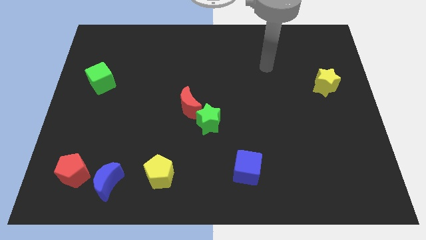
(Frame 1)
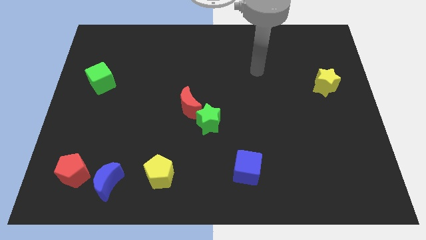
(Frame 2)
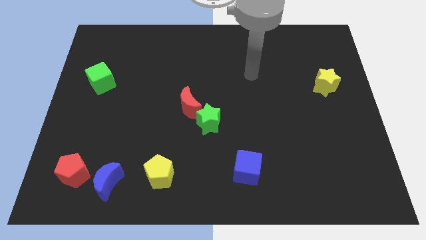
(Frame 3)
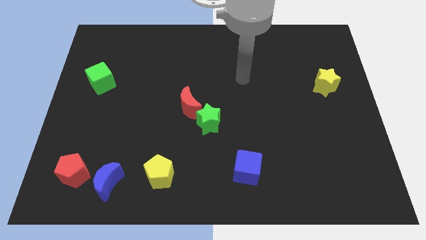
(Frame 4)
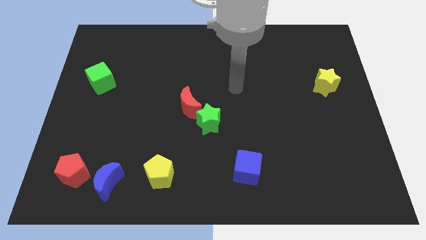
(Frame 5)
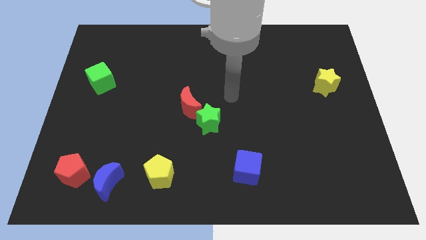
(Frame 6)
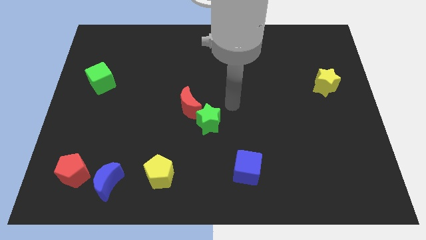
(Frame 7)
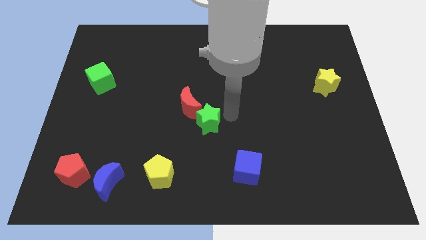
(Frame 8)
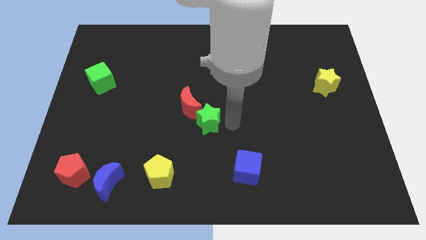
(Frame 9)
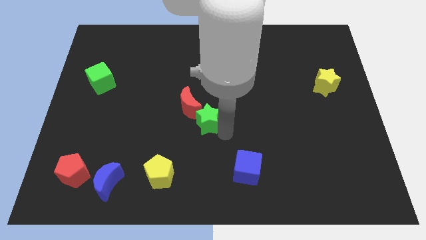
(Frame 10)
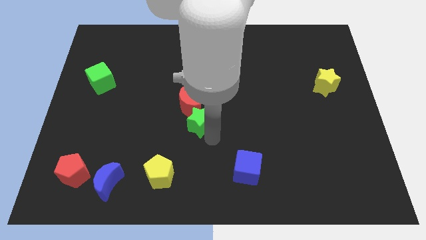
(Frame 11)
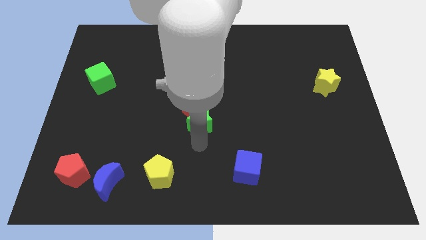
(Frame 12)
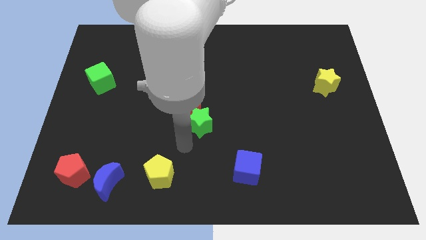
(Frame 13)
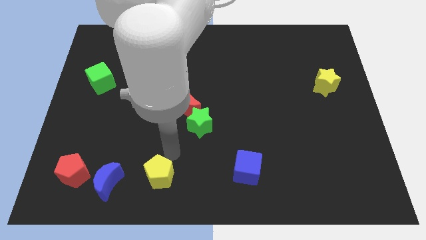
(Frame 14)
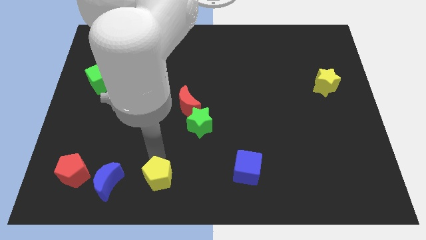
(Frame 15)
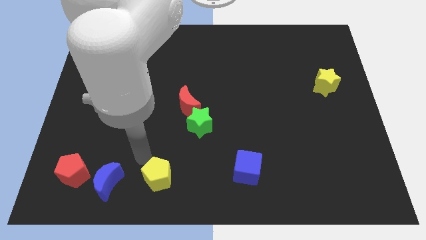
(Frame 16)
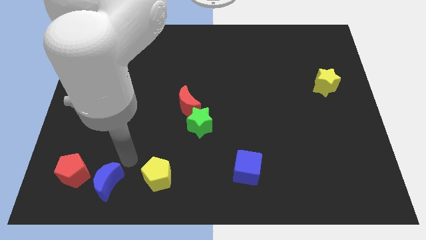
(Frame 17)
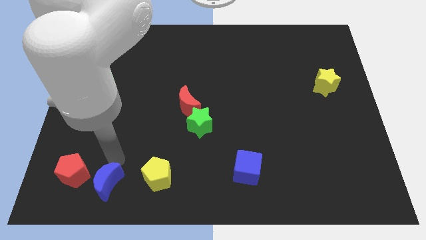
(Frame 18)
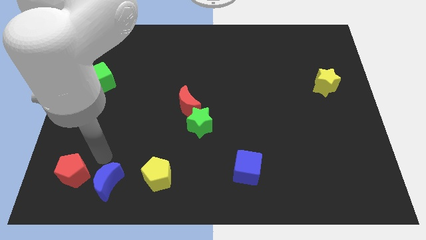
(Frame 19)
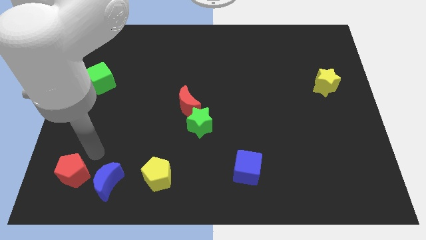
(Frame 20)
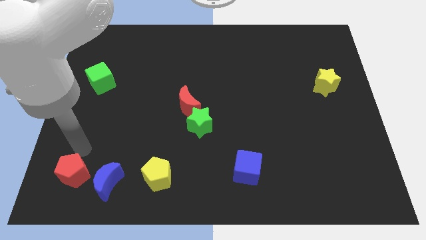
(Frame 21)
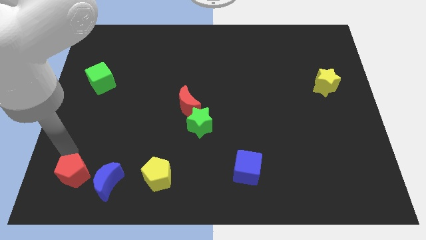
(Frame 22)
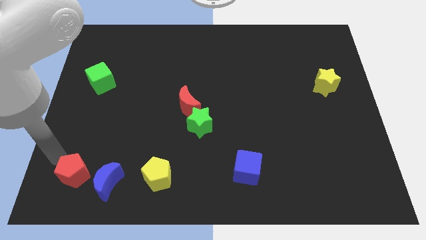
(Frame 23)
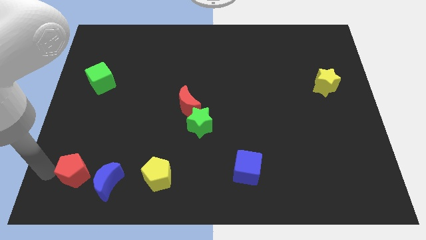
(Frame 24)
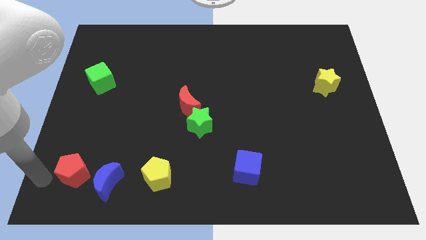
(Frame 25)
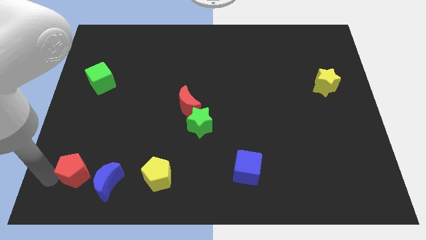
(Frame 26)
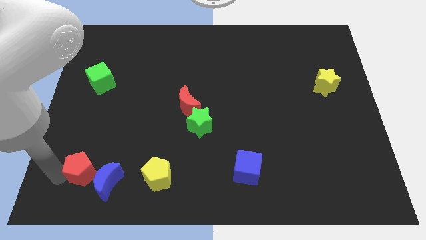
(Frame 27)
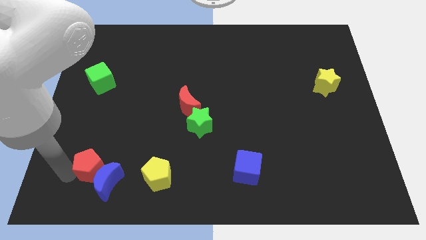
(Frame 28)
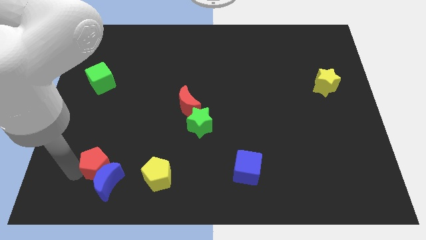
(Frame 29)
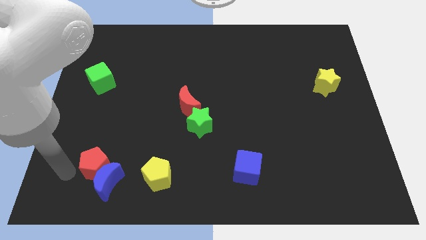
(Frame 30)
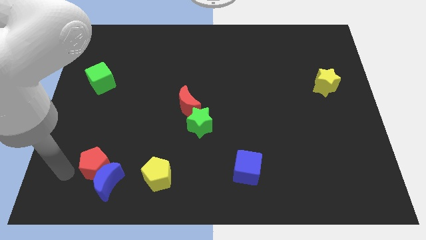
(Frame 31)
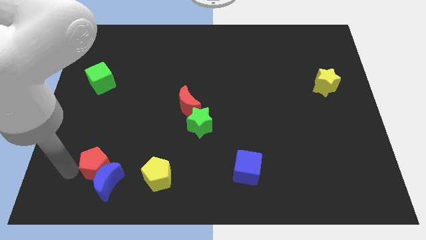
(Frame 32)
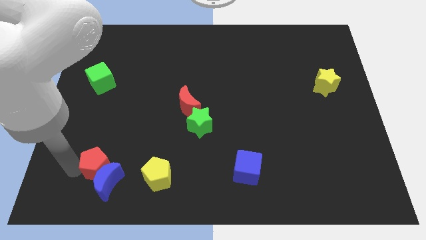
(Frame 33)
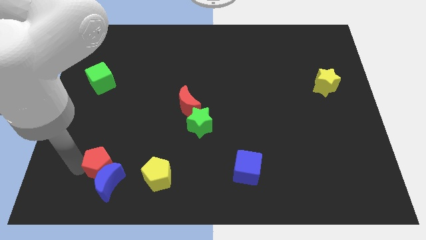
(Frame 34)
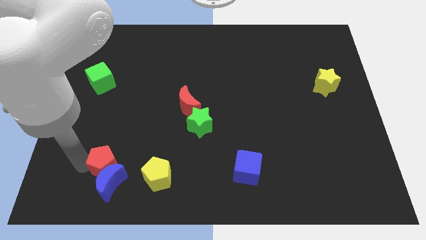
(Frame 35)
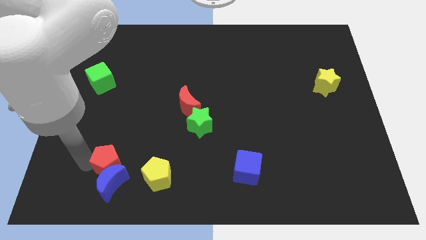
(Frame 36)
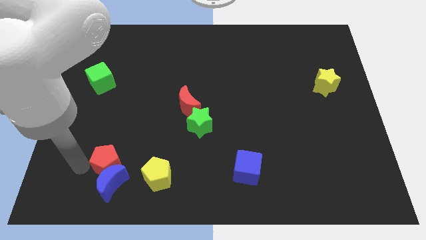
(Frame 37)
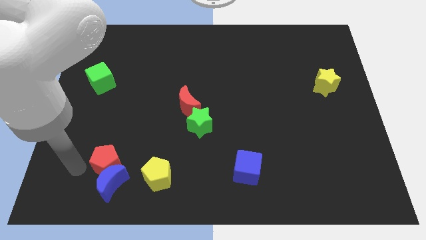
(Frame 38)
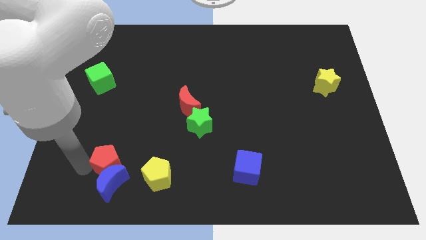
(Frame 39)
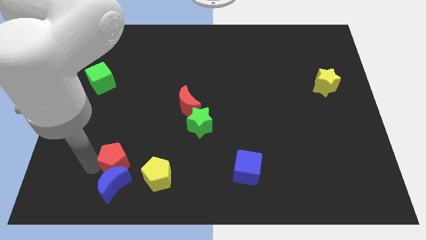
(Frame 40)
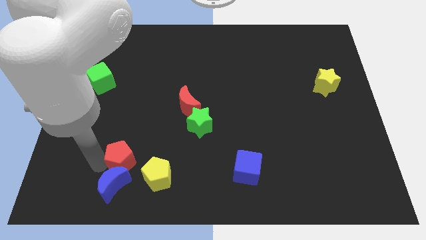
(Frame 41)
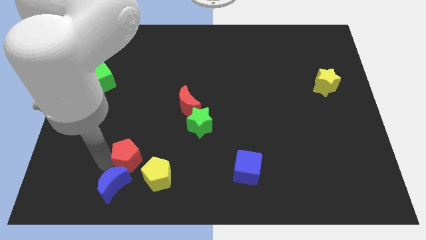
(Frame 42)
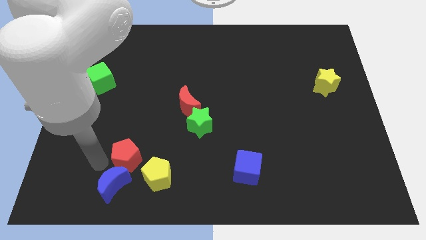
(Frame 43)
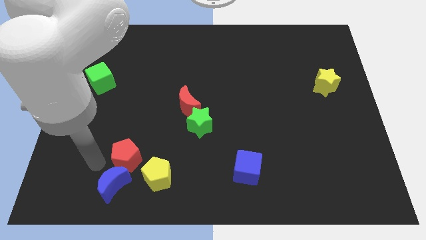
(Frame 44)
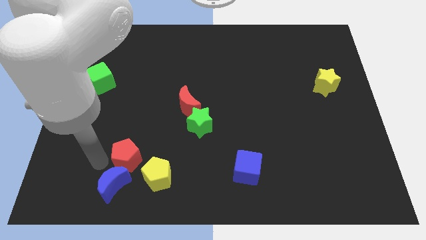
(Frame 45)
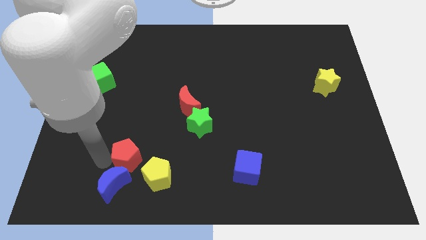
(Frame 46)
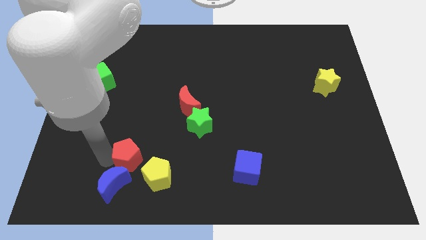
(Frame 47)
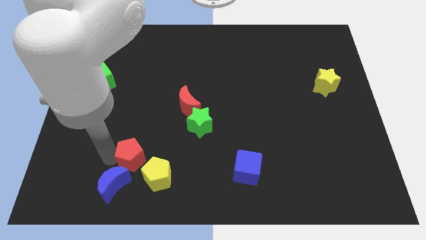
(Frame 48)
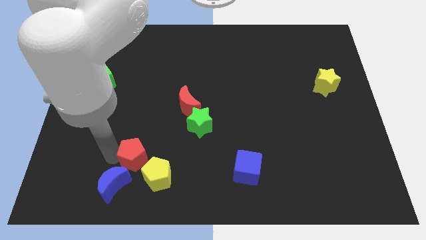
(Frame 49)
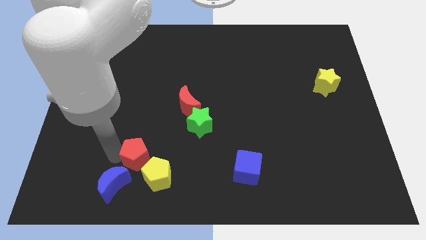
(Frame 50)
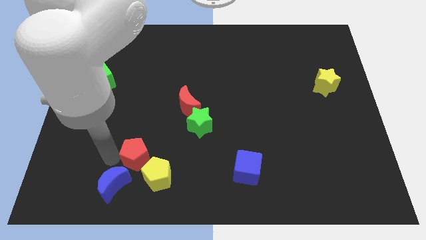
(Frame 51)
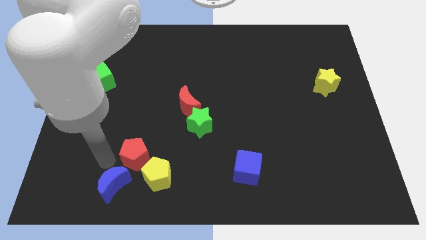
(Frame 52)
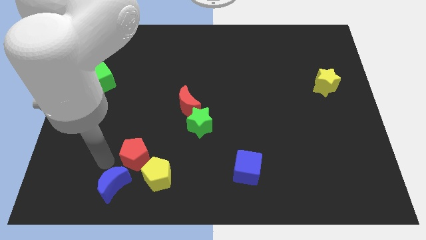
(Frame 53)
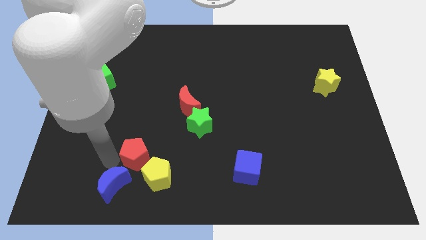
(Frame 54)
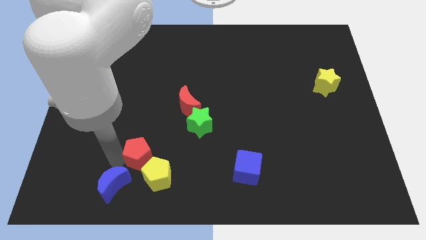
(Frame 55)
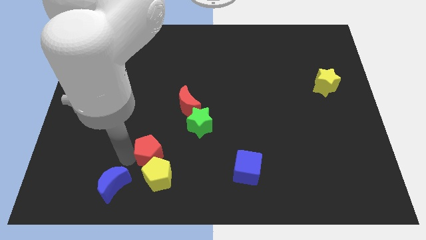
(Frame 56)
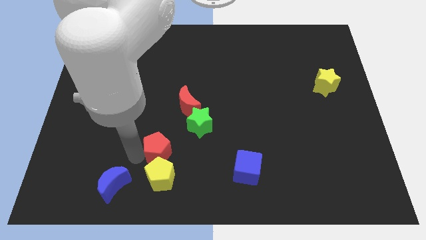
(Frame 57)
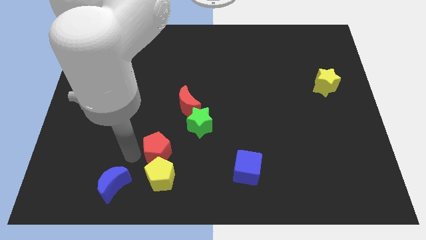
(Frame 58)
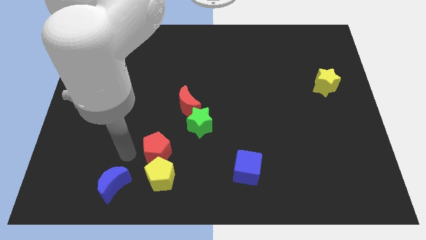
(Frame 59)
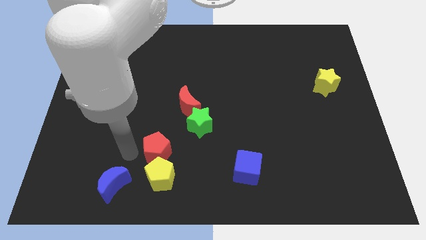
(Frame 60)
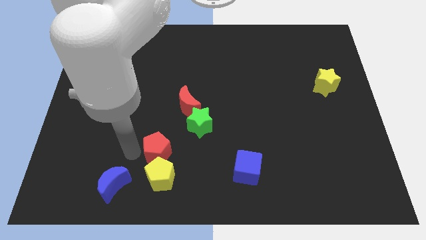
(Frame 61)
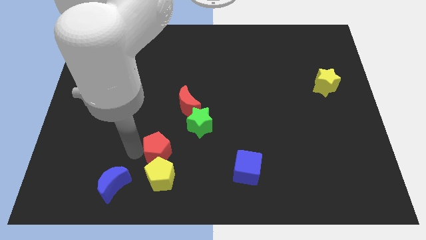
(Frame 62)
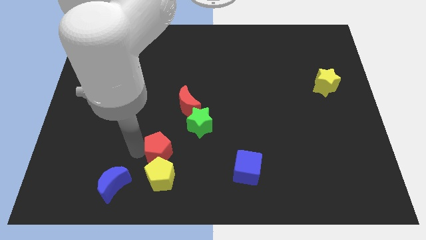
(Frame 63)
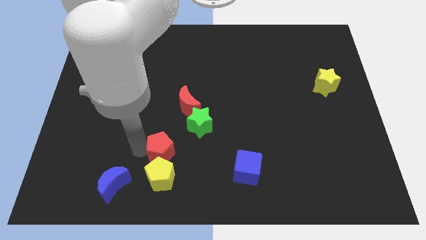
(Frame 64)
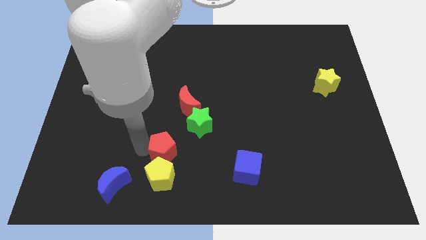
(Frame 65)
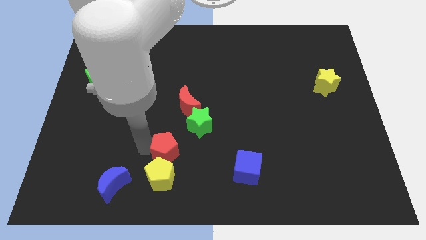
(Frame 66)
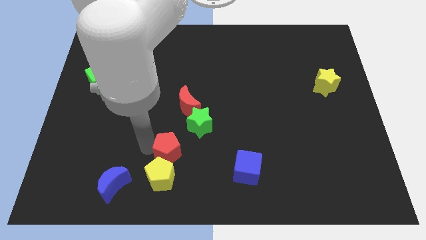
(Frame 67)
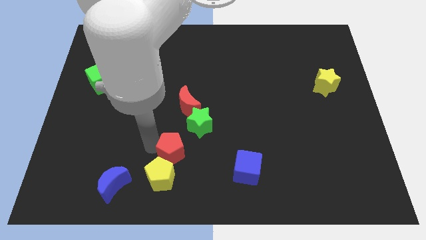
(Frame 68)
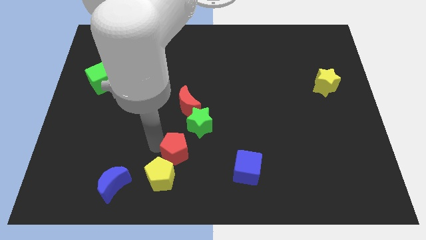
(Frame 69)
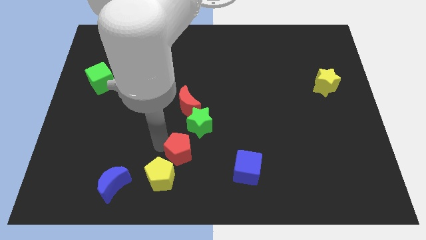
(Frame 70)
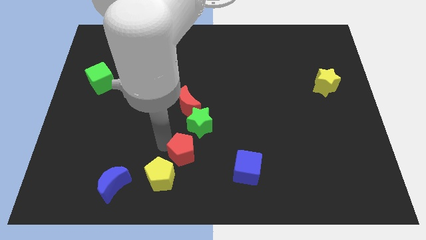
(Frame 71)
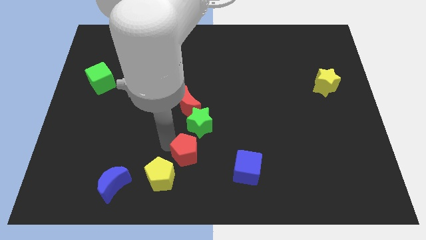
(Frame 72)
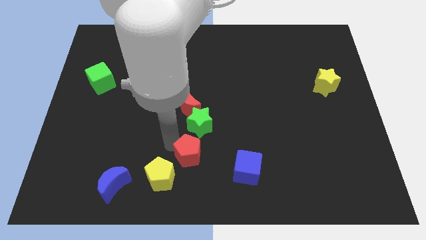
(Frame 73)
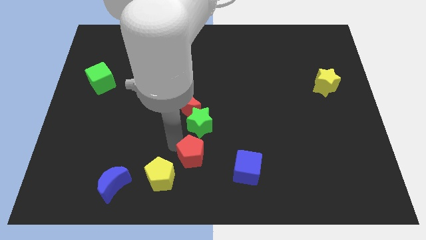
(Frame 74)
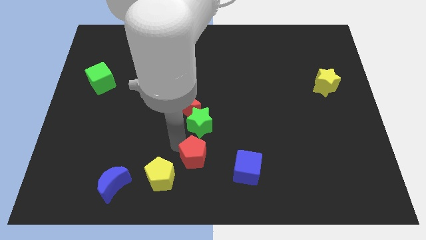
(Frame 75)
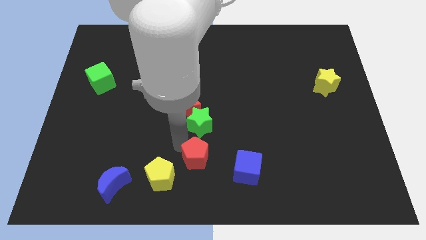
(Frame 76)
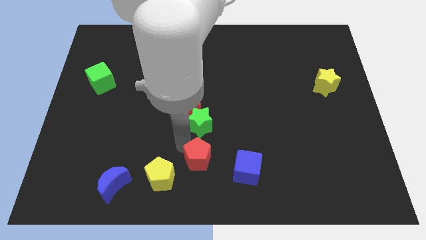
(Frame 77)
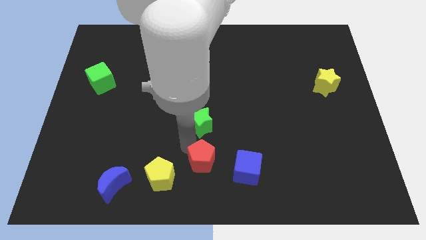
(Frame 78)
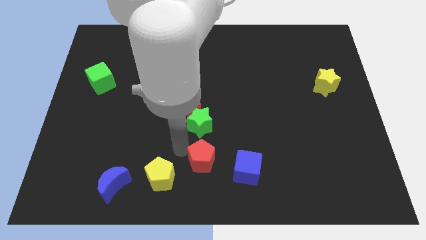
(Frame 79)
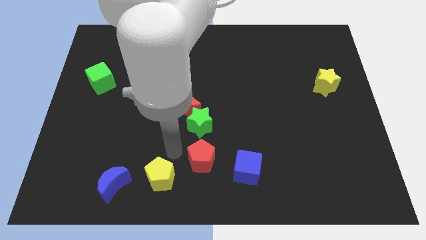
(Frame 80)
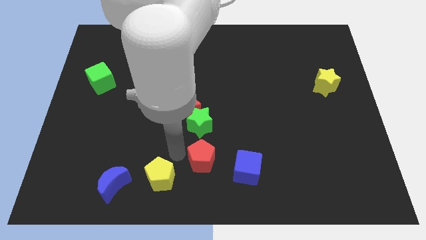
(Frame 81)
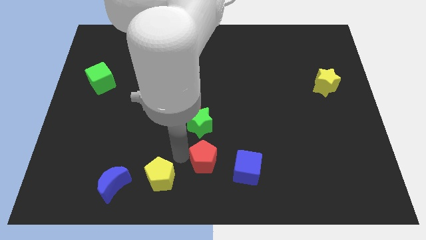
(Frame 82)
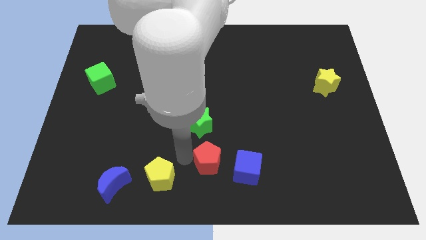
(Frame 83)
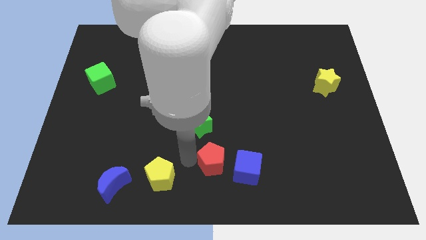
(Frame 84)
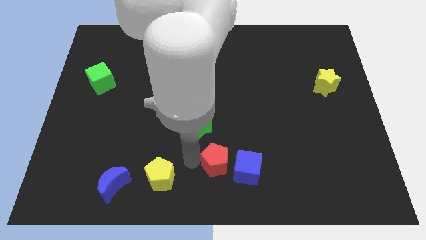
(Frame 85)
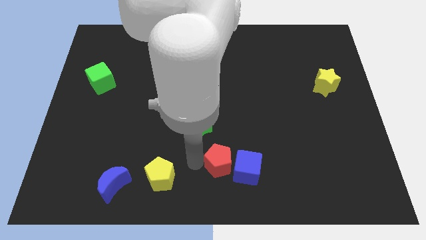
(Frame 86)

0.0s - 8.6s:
push the red pentagon to the blue cube
